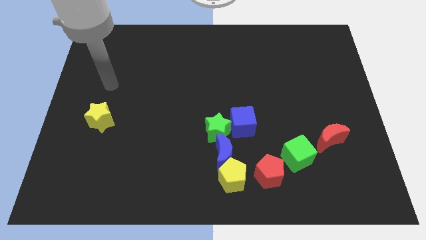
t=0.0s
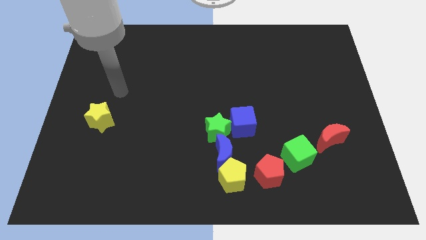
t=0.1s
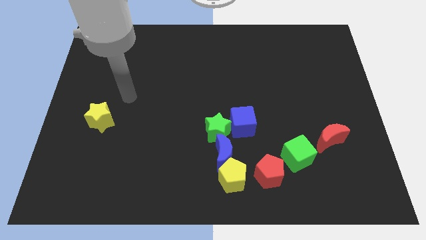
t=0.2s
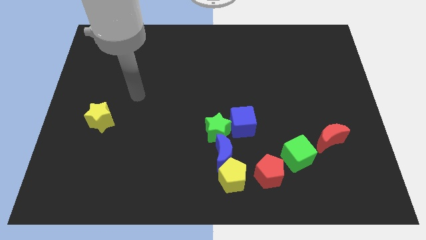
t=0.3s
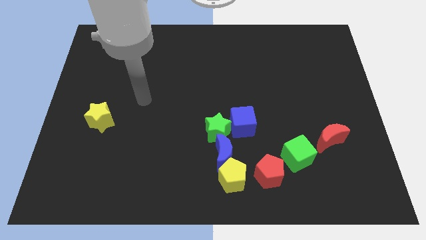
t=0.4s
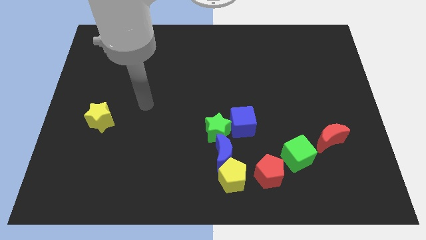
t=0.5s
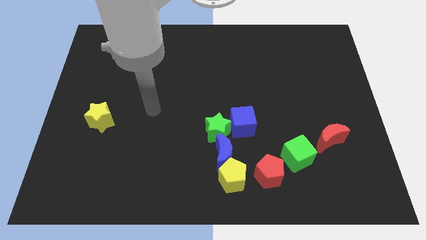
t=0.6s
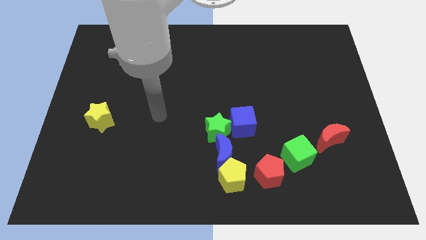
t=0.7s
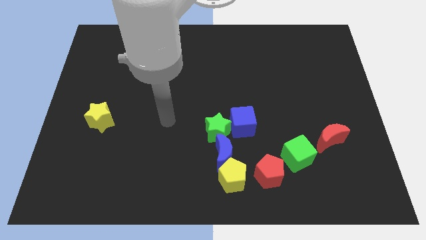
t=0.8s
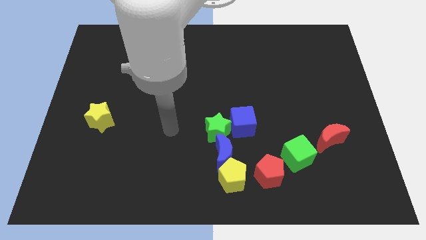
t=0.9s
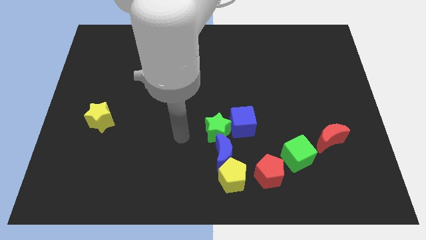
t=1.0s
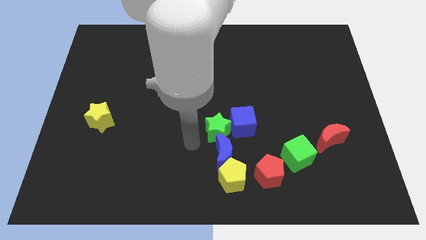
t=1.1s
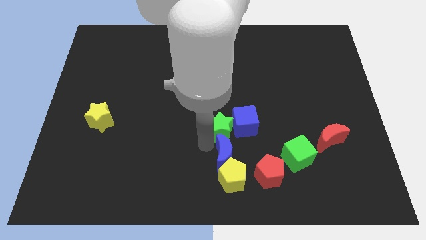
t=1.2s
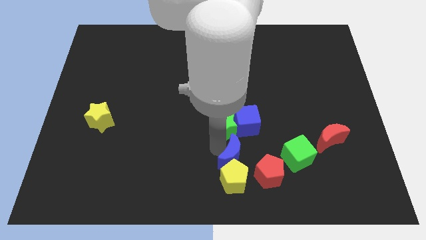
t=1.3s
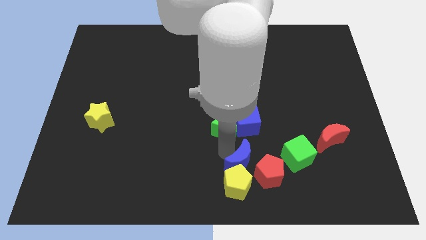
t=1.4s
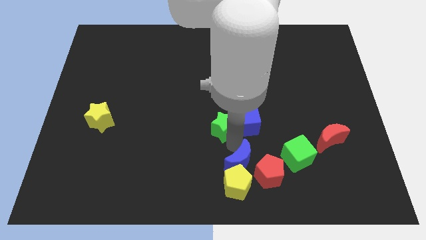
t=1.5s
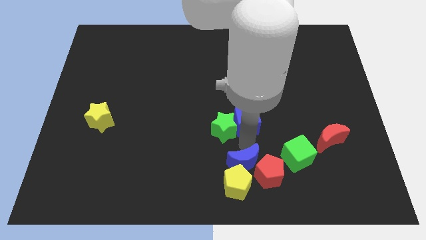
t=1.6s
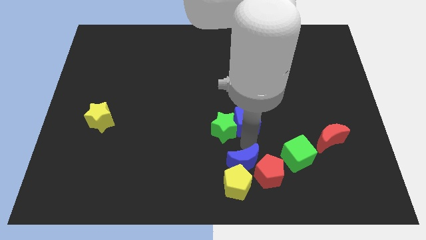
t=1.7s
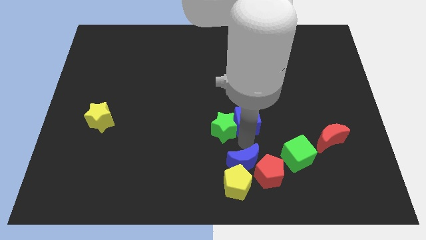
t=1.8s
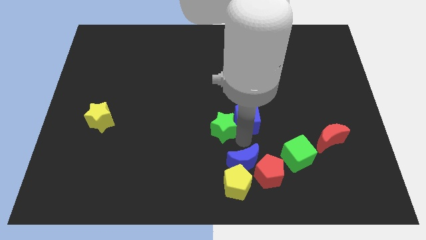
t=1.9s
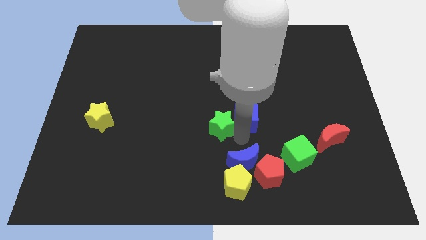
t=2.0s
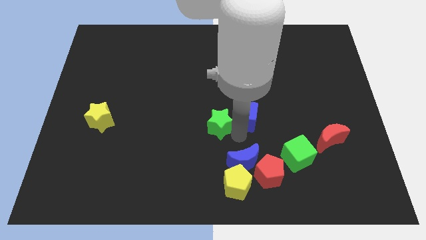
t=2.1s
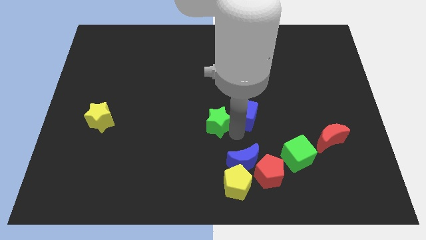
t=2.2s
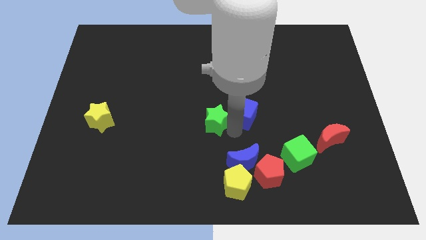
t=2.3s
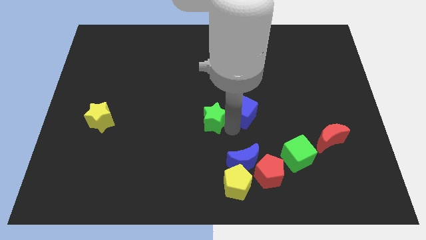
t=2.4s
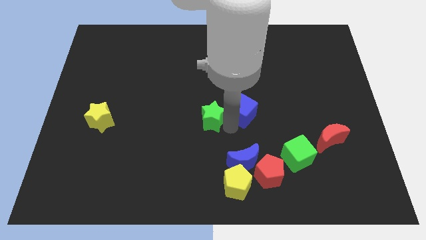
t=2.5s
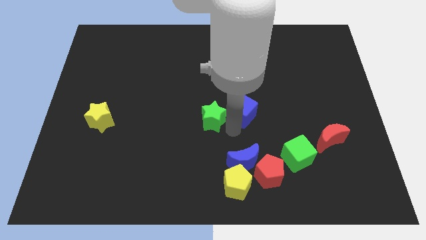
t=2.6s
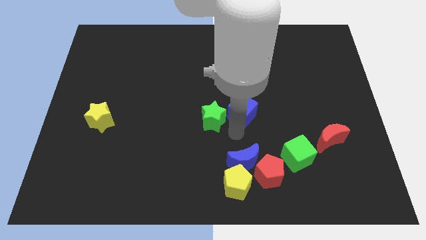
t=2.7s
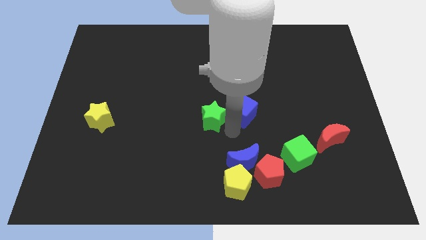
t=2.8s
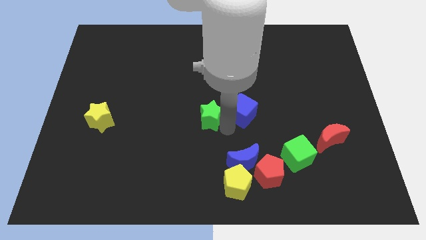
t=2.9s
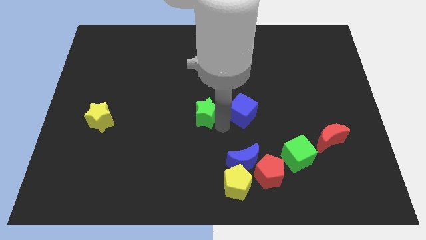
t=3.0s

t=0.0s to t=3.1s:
pull the green star apart from the blue cube and blue moon

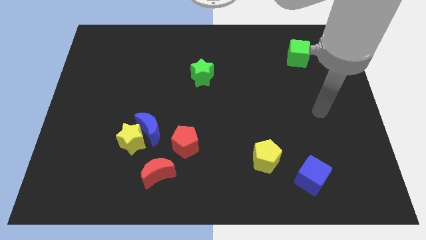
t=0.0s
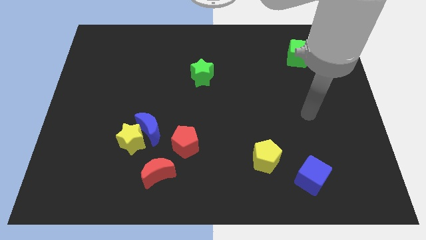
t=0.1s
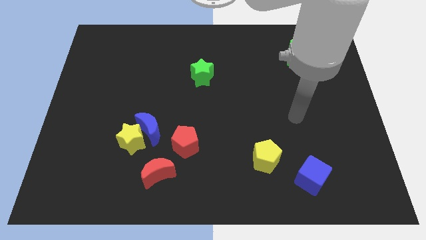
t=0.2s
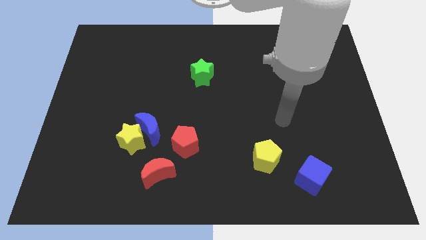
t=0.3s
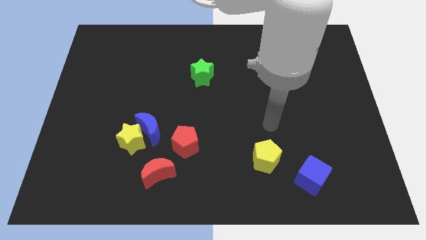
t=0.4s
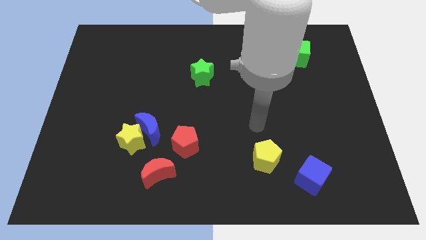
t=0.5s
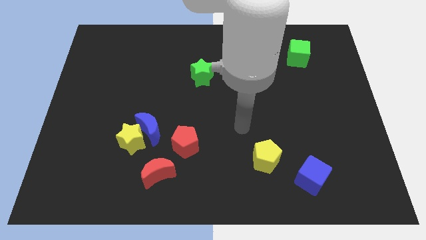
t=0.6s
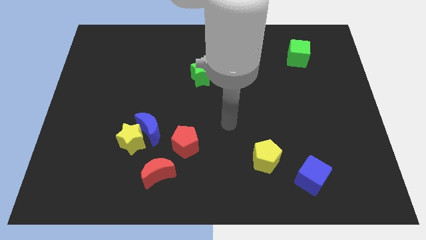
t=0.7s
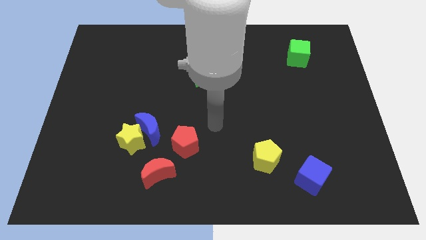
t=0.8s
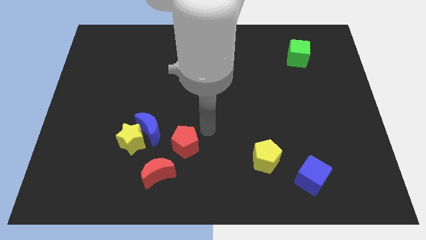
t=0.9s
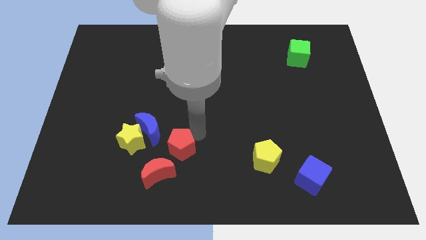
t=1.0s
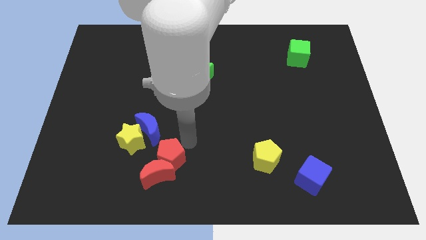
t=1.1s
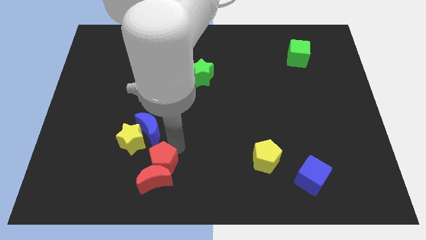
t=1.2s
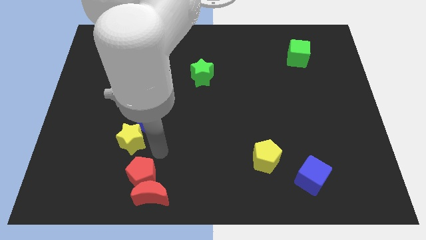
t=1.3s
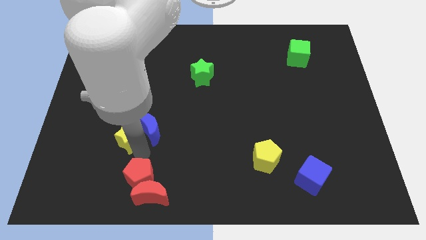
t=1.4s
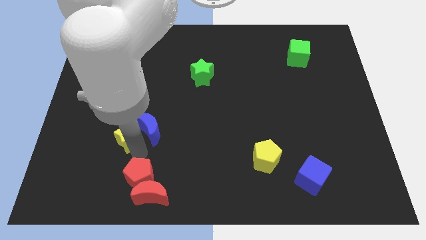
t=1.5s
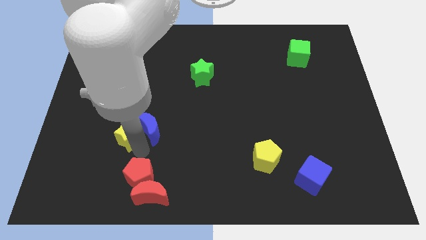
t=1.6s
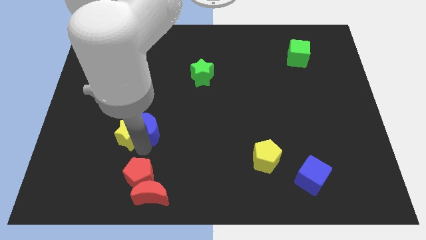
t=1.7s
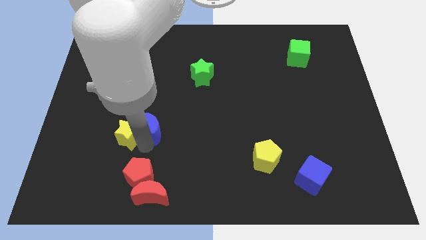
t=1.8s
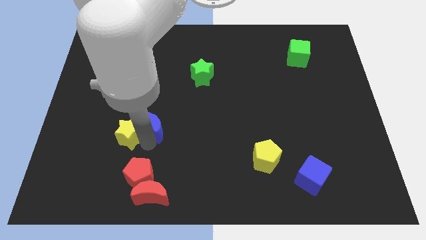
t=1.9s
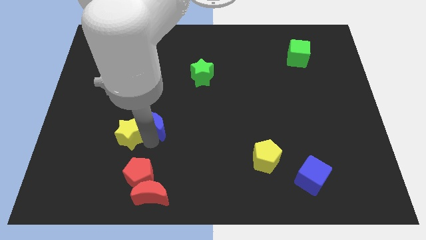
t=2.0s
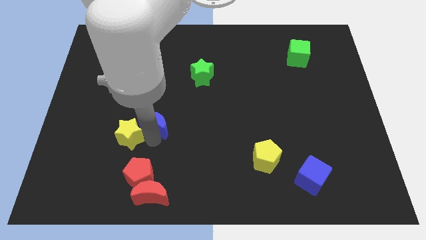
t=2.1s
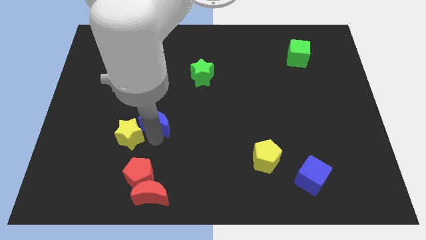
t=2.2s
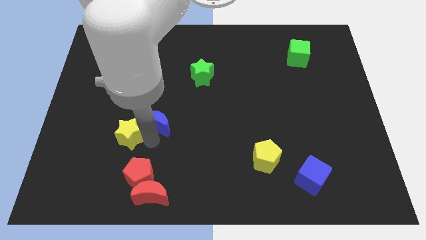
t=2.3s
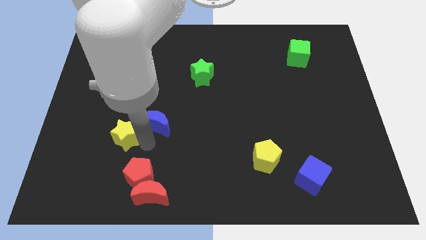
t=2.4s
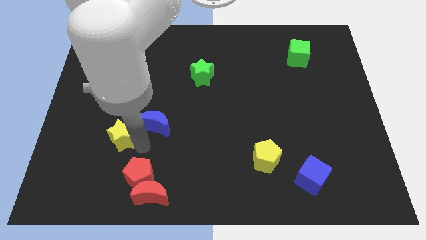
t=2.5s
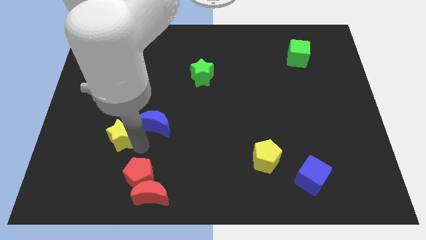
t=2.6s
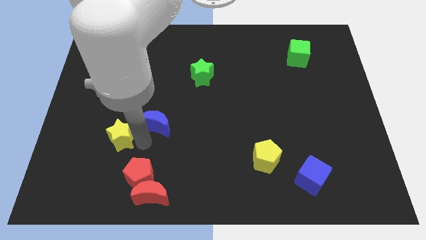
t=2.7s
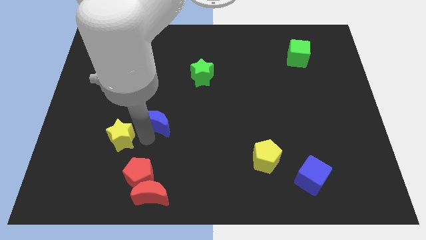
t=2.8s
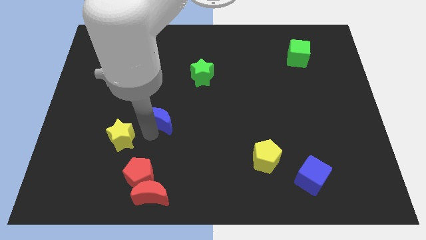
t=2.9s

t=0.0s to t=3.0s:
pull the blue moon apart from the yellow star and red pentagon

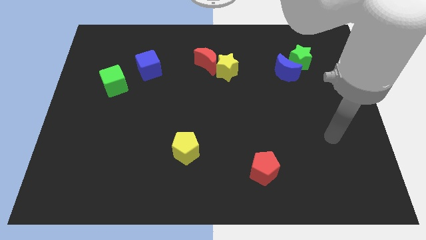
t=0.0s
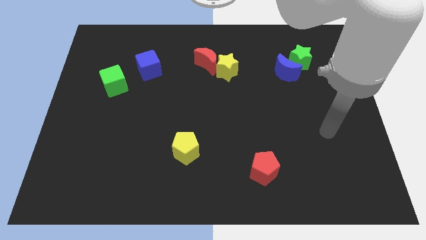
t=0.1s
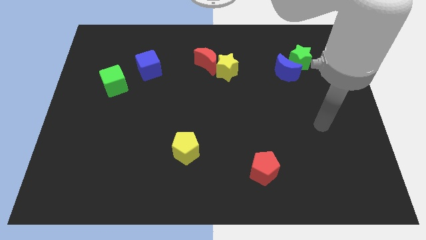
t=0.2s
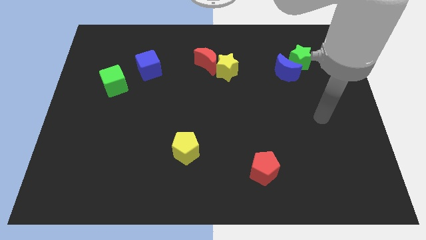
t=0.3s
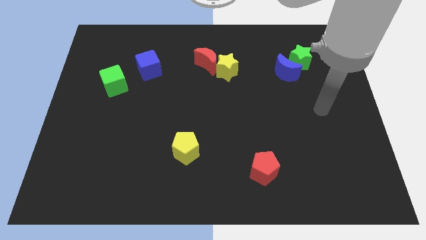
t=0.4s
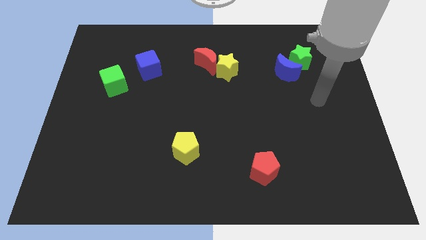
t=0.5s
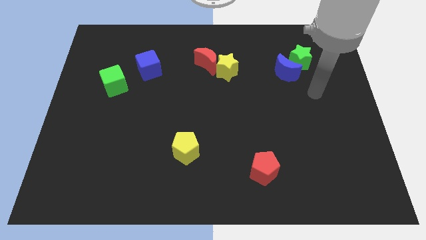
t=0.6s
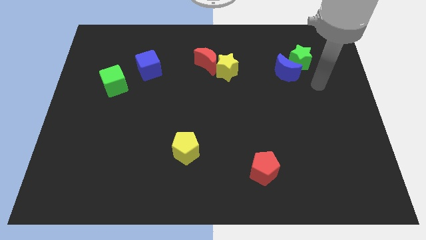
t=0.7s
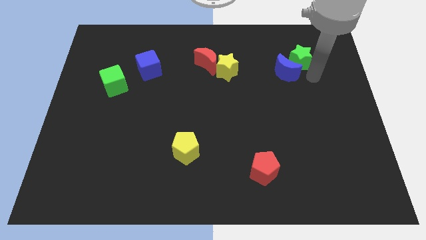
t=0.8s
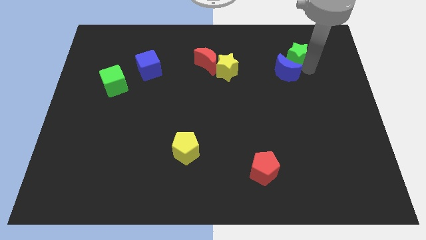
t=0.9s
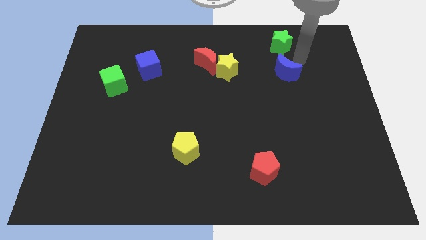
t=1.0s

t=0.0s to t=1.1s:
separate the blue moon from the green star

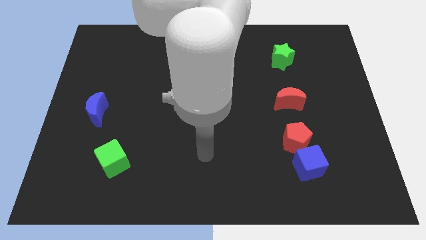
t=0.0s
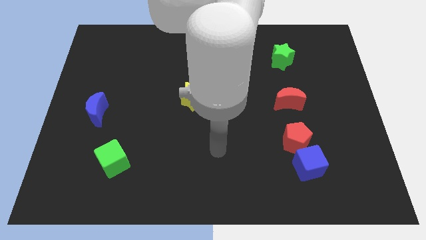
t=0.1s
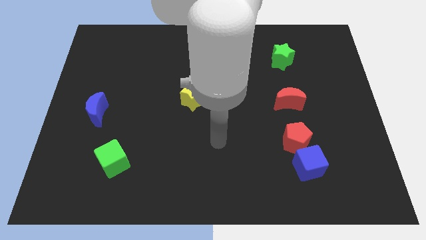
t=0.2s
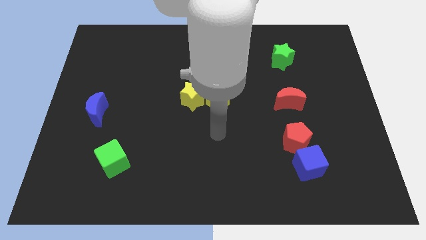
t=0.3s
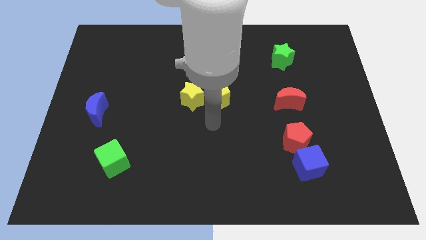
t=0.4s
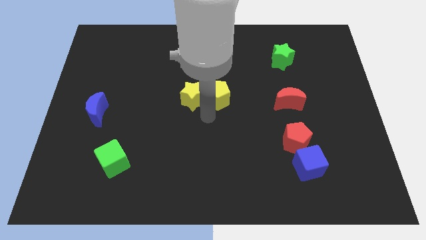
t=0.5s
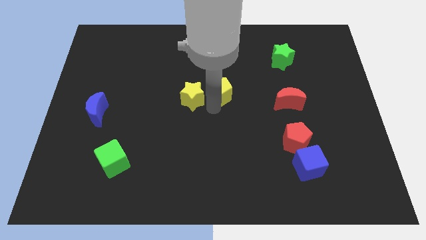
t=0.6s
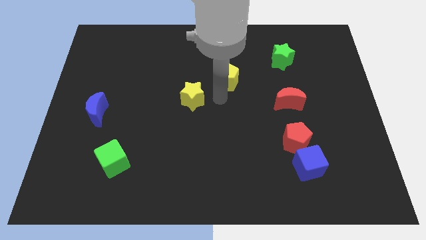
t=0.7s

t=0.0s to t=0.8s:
move the yellow star away from the yellow pentagon

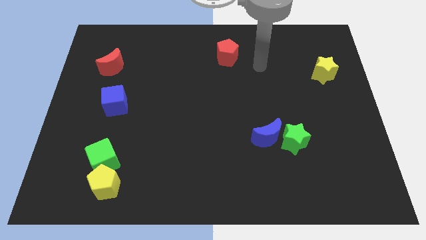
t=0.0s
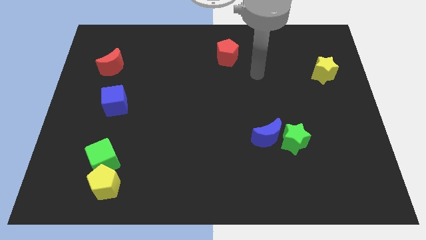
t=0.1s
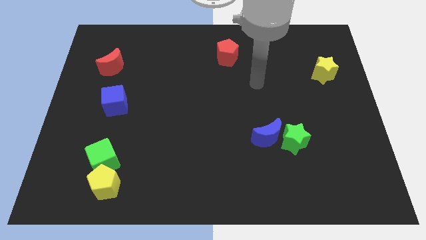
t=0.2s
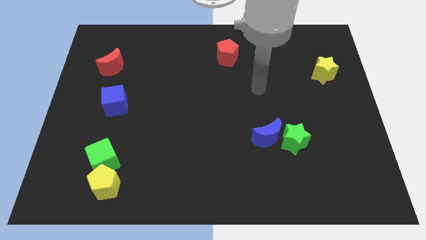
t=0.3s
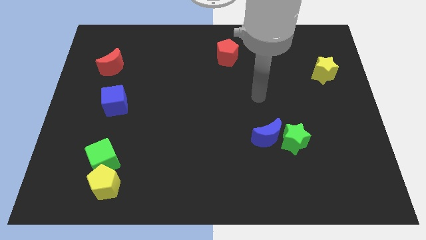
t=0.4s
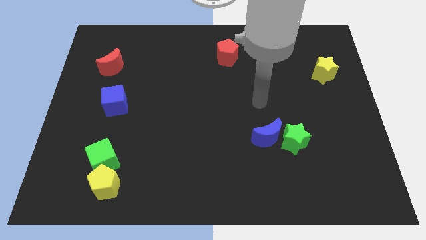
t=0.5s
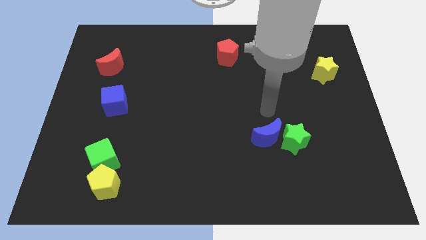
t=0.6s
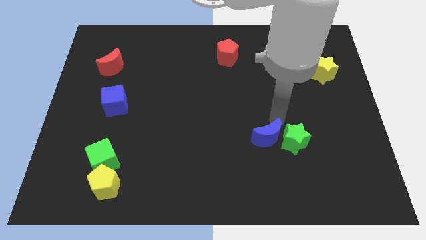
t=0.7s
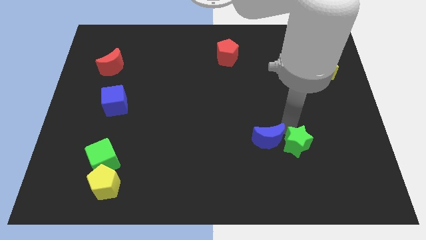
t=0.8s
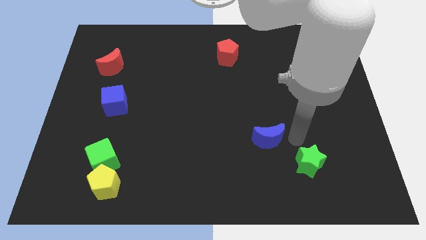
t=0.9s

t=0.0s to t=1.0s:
pull the blue moon apart from the green star

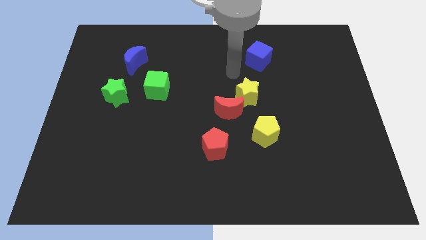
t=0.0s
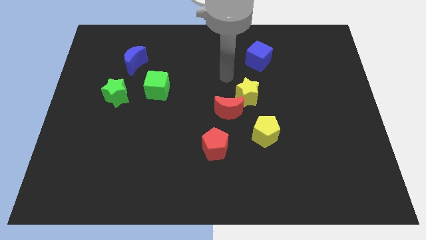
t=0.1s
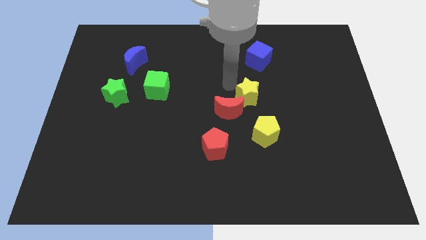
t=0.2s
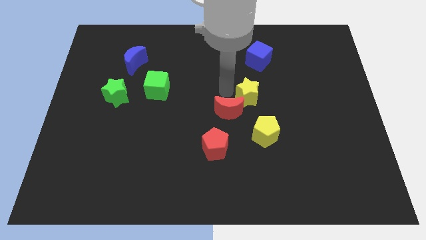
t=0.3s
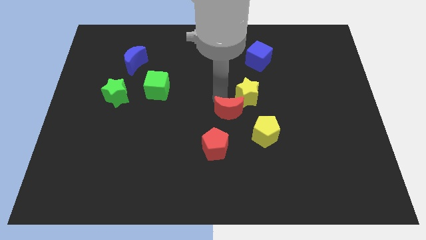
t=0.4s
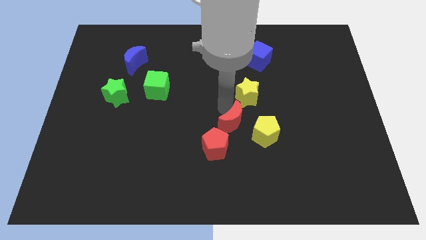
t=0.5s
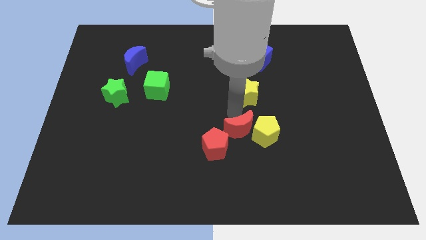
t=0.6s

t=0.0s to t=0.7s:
pull the yellow star apart from the red moon
